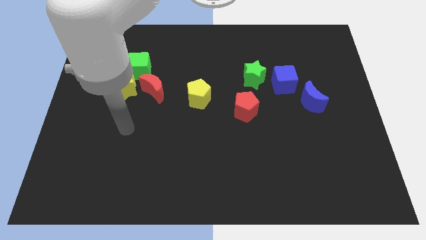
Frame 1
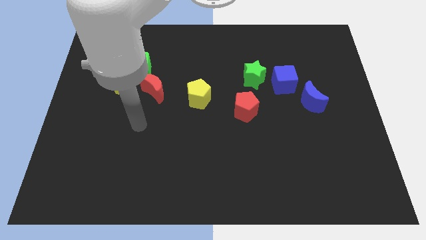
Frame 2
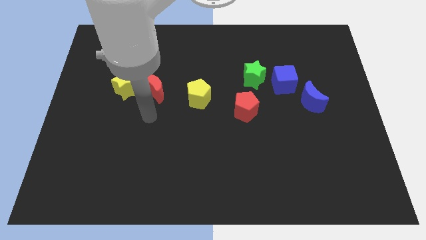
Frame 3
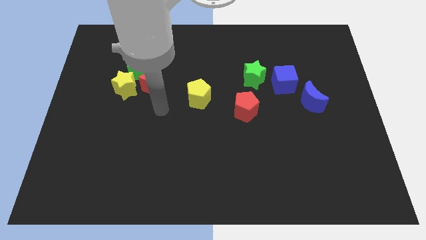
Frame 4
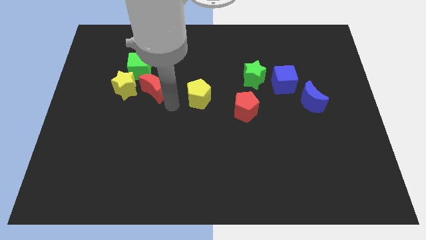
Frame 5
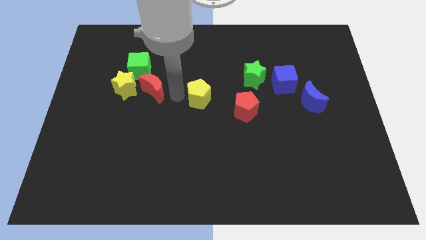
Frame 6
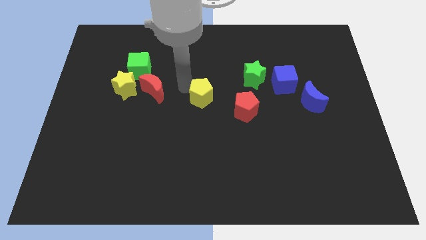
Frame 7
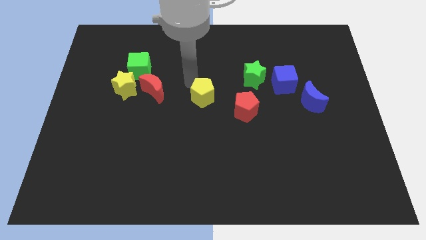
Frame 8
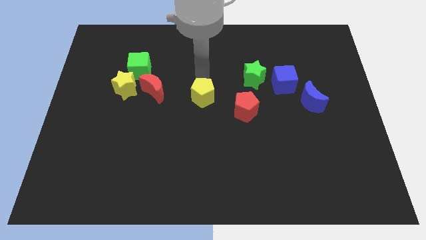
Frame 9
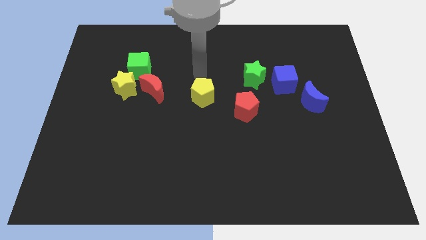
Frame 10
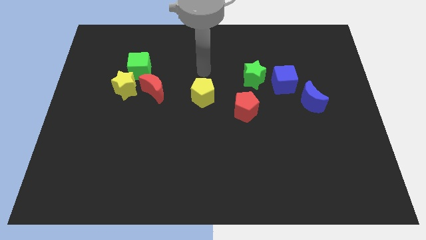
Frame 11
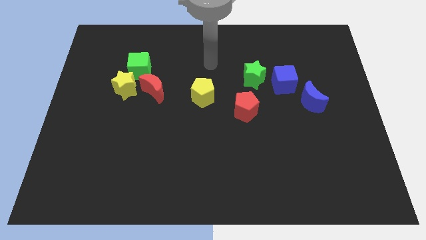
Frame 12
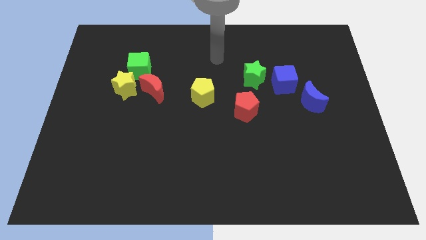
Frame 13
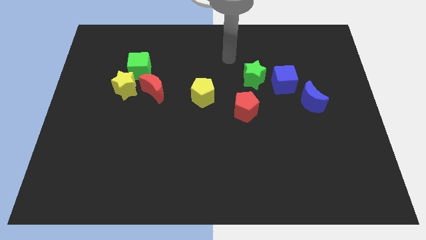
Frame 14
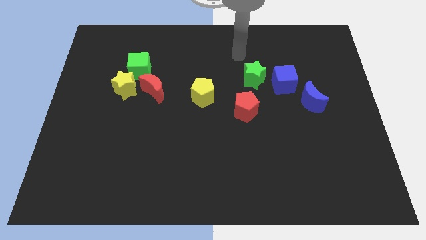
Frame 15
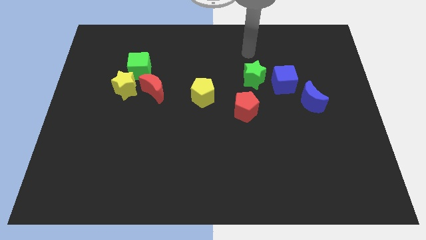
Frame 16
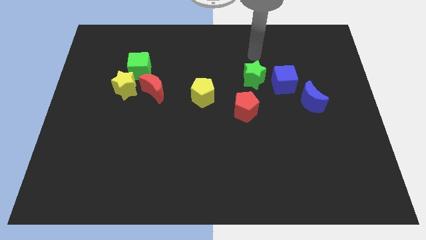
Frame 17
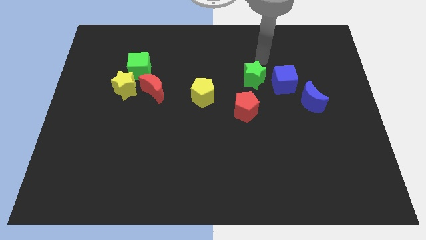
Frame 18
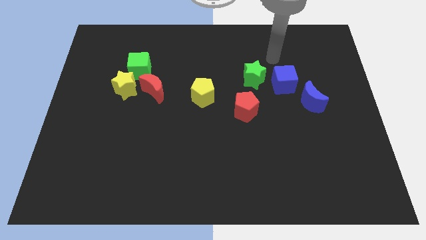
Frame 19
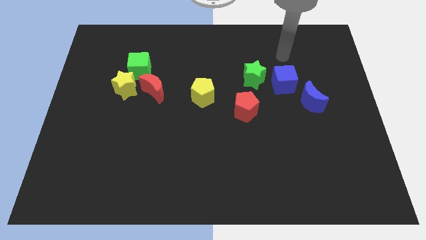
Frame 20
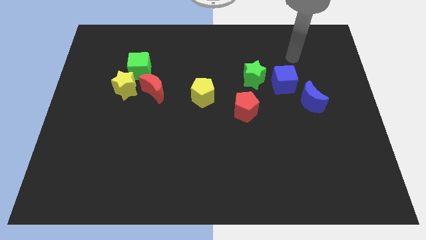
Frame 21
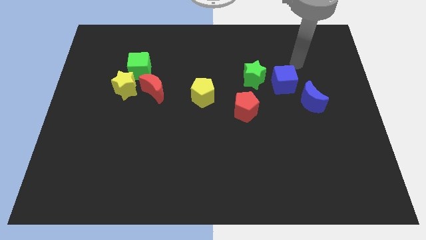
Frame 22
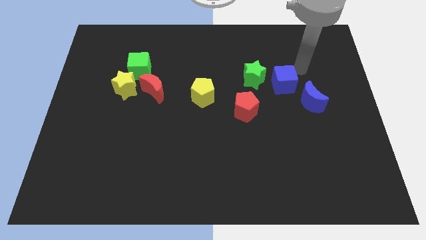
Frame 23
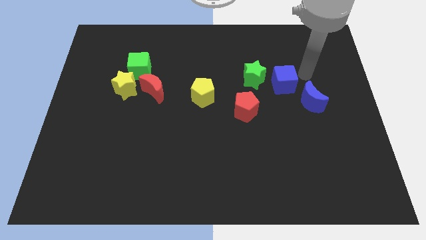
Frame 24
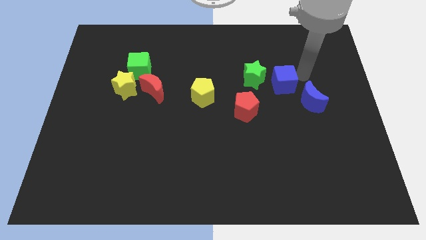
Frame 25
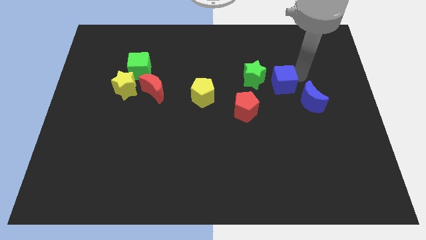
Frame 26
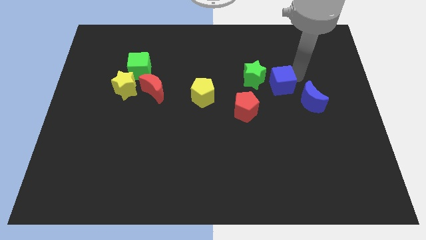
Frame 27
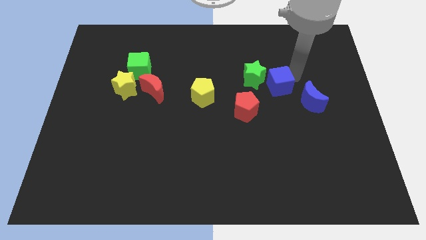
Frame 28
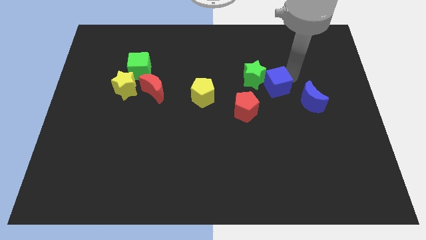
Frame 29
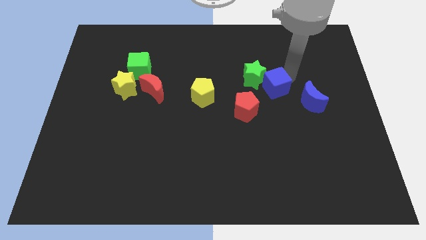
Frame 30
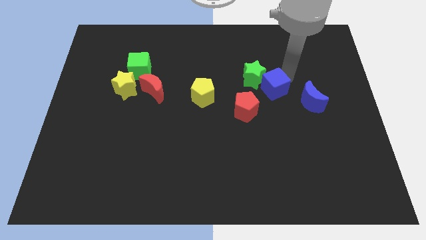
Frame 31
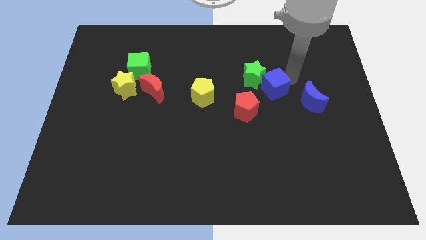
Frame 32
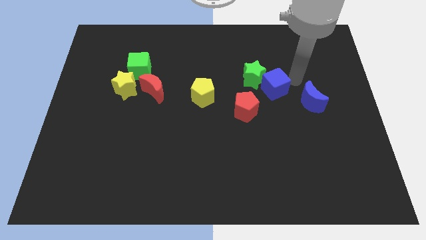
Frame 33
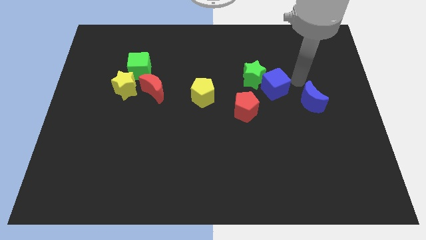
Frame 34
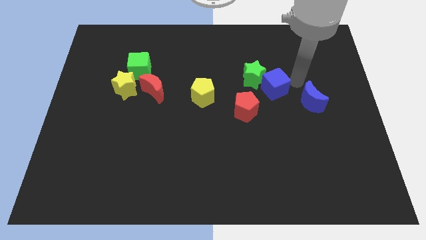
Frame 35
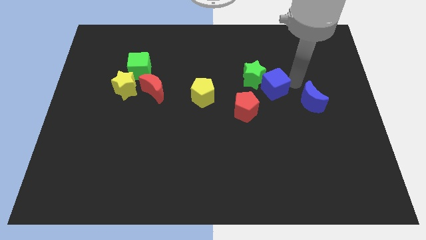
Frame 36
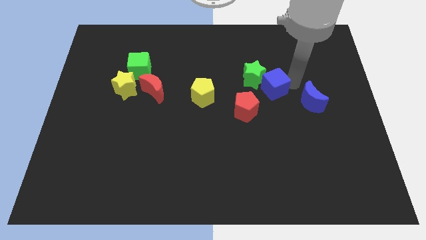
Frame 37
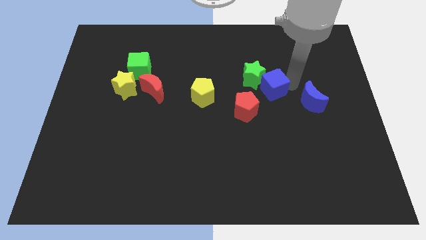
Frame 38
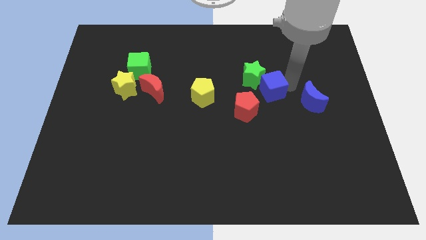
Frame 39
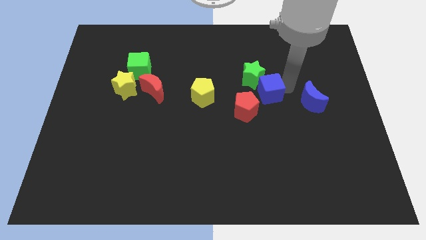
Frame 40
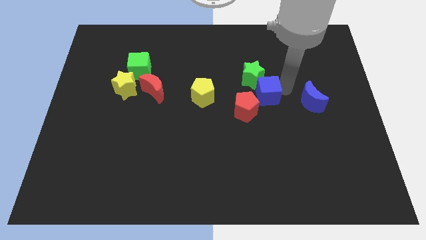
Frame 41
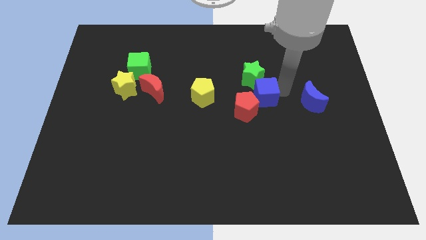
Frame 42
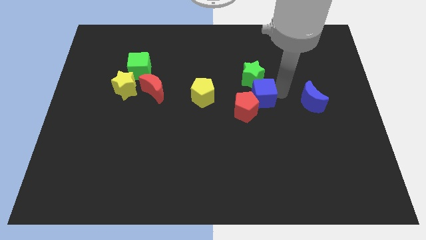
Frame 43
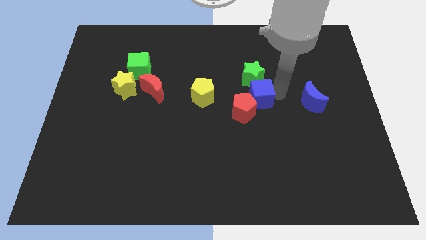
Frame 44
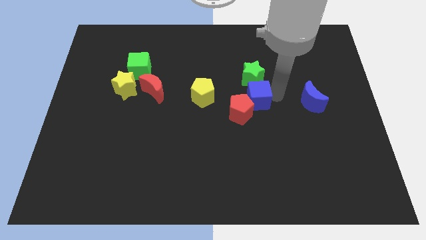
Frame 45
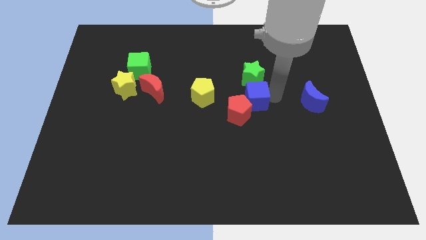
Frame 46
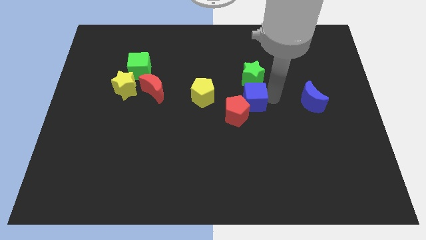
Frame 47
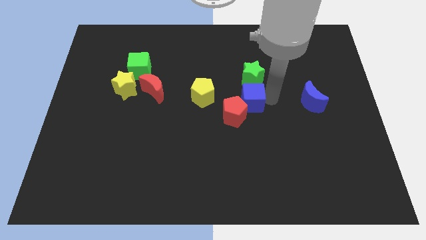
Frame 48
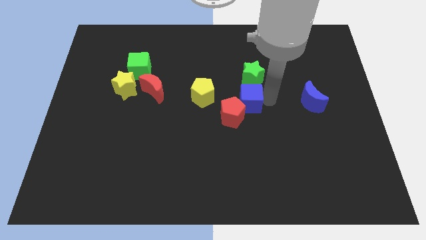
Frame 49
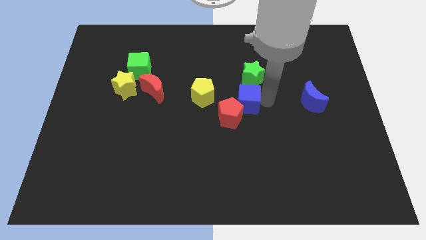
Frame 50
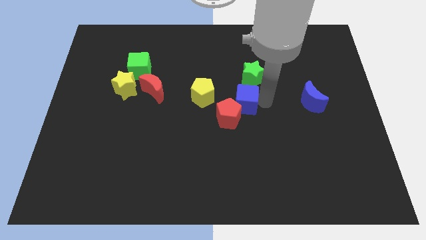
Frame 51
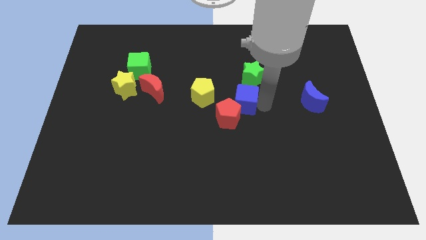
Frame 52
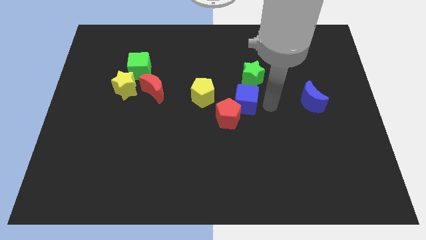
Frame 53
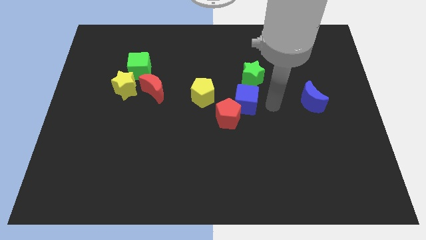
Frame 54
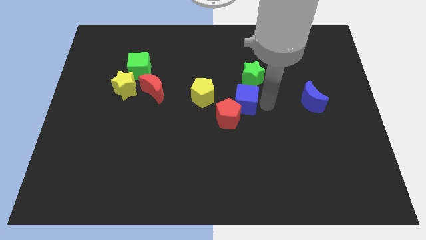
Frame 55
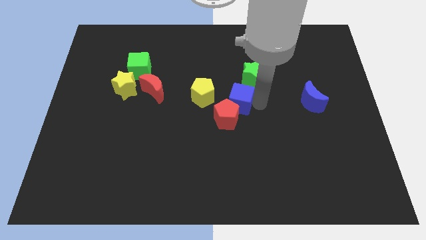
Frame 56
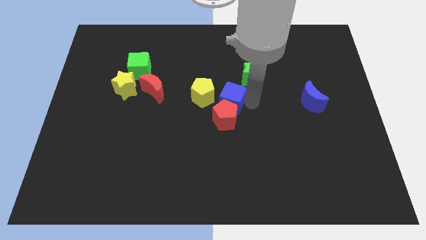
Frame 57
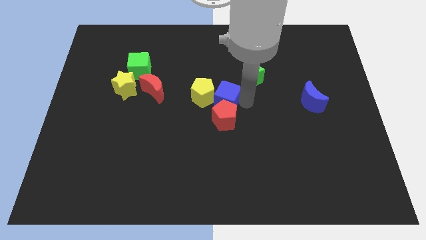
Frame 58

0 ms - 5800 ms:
move the blue cube next to the yellow pentagon

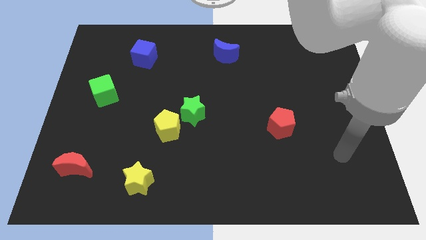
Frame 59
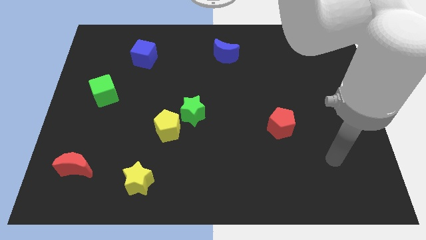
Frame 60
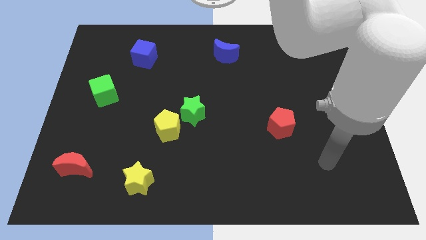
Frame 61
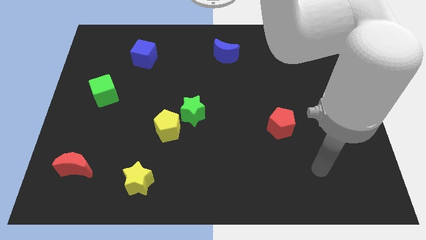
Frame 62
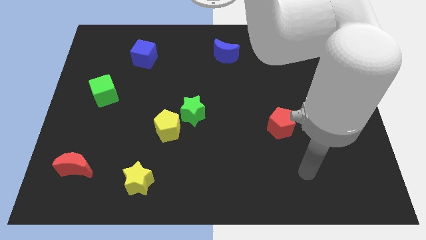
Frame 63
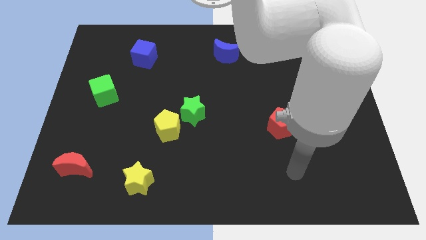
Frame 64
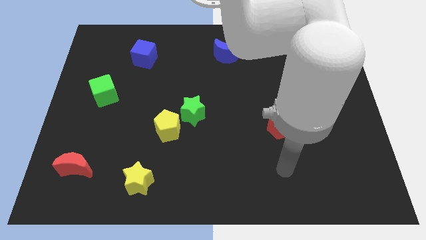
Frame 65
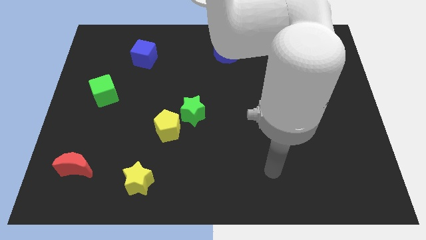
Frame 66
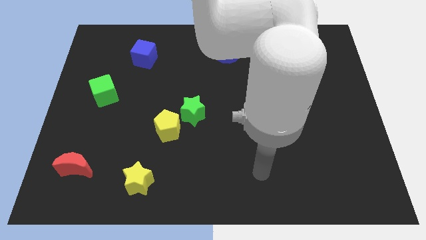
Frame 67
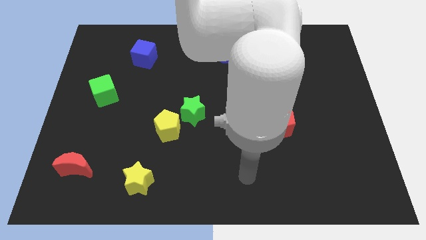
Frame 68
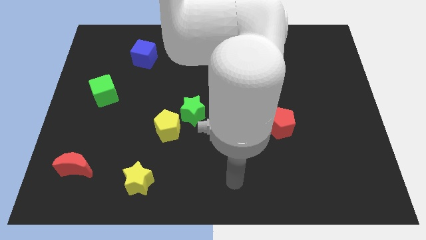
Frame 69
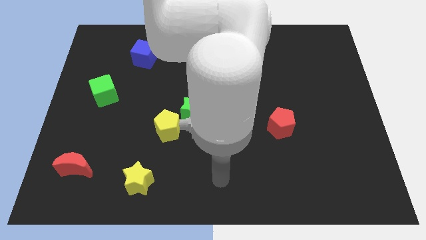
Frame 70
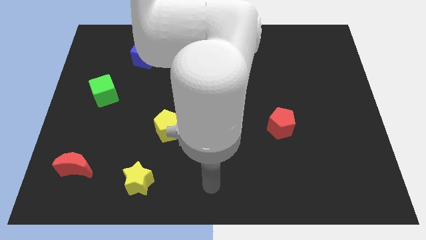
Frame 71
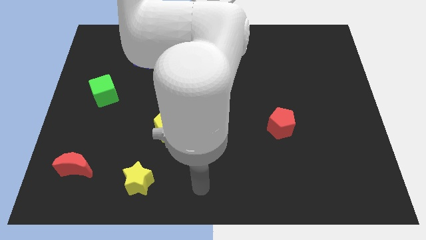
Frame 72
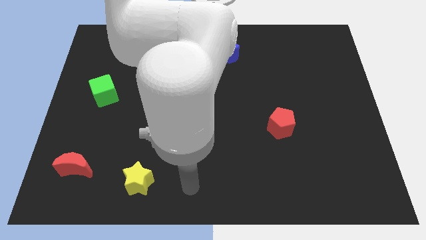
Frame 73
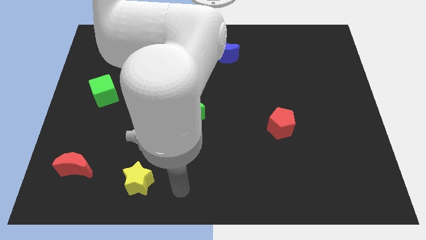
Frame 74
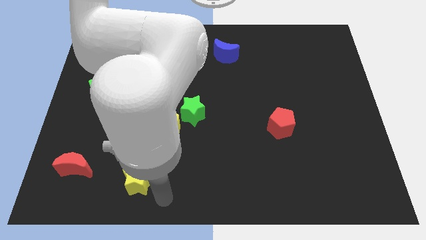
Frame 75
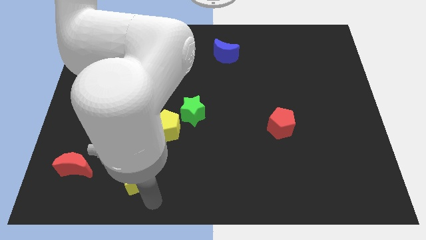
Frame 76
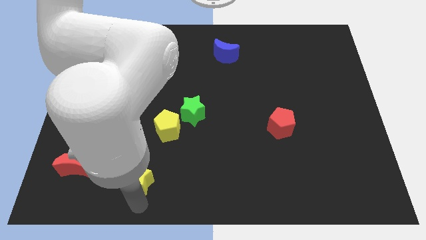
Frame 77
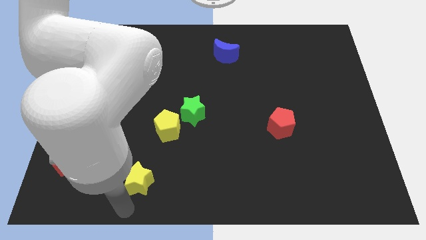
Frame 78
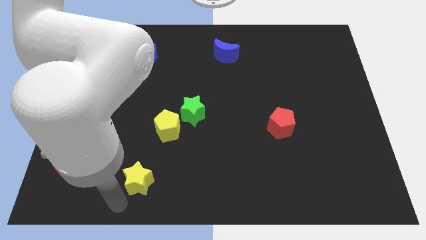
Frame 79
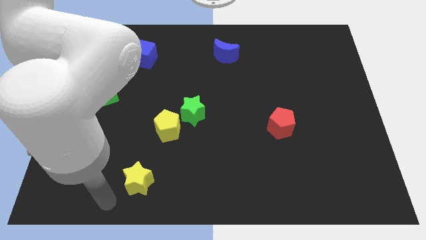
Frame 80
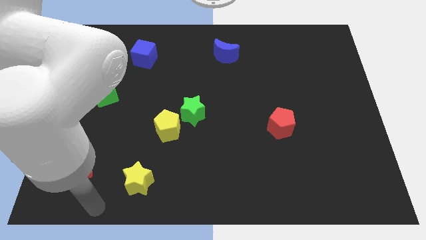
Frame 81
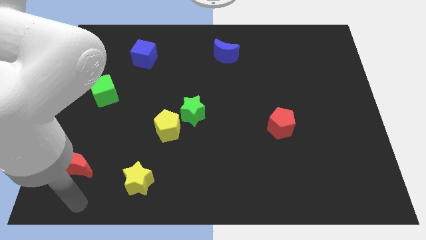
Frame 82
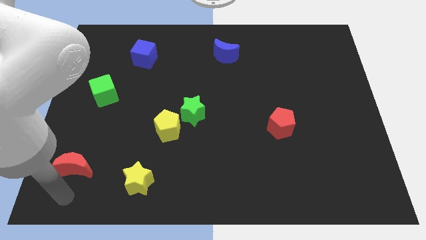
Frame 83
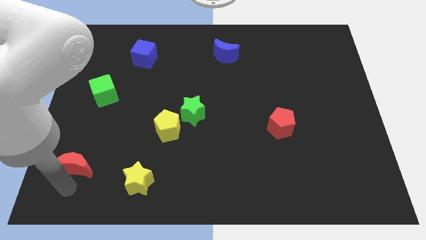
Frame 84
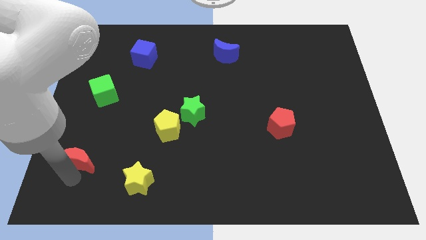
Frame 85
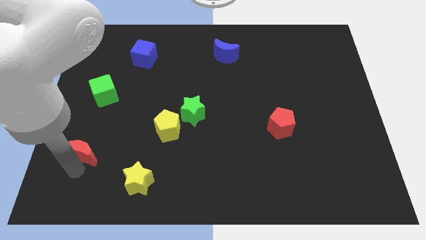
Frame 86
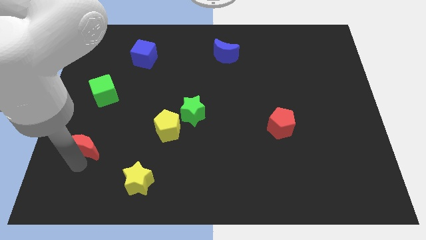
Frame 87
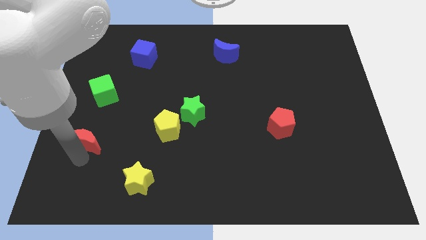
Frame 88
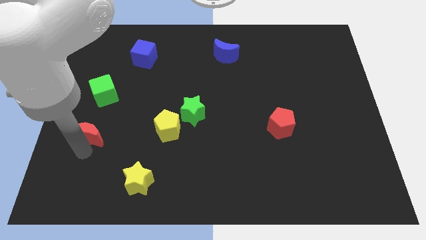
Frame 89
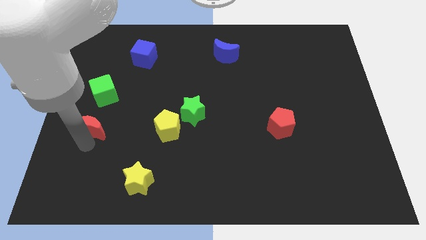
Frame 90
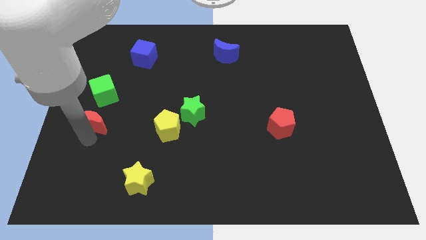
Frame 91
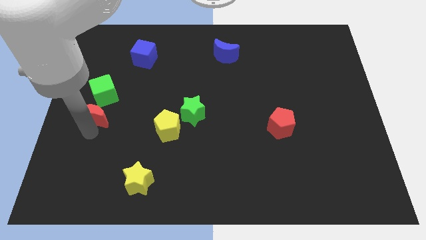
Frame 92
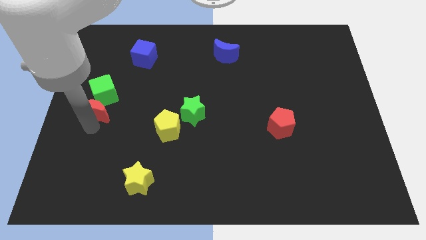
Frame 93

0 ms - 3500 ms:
move the red moon towards the green cube
